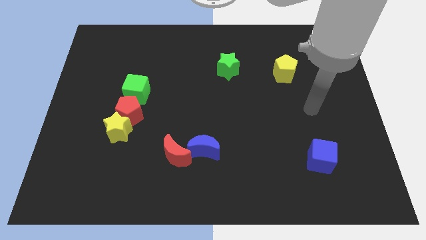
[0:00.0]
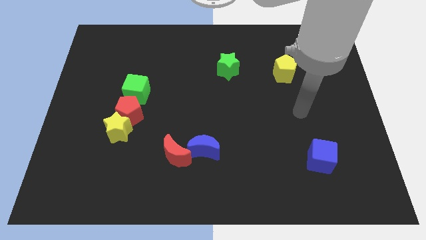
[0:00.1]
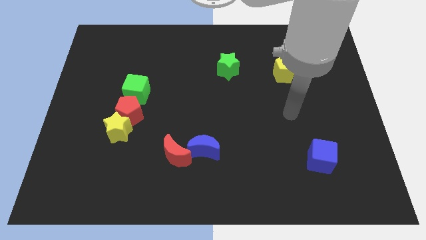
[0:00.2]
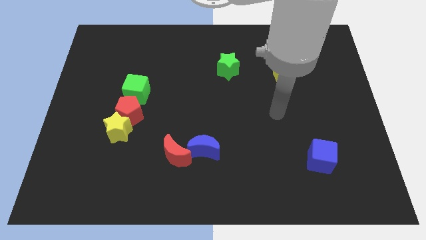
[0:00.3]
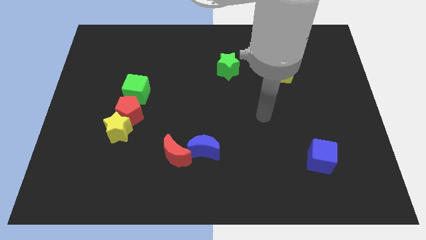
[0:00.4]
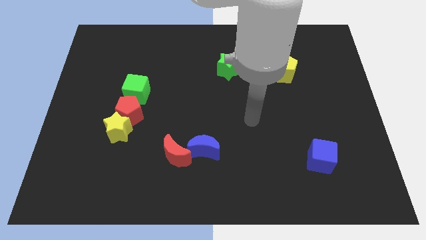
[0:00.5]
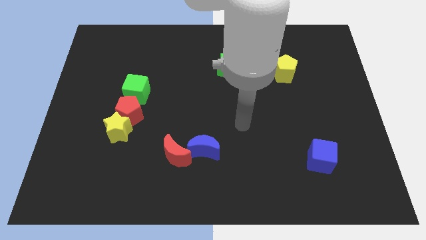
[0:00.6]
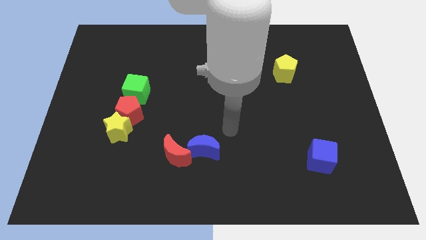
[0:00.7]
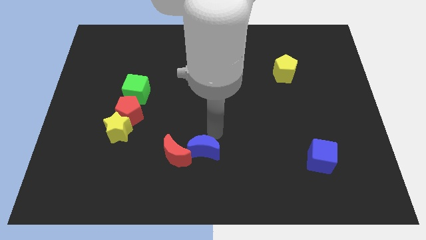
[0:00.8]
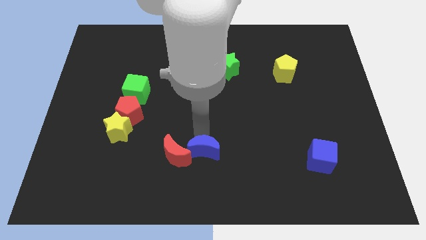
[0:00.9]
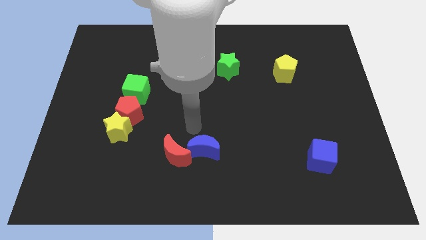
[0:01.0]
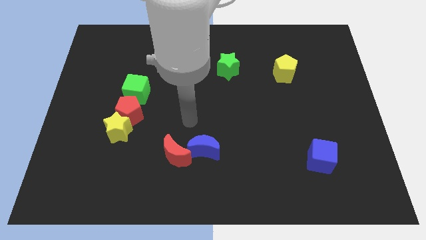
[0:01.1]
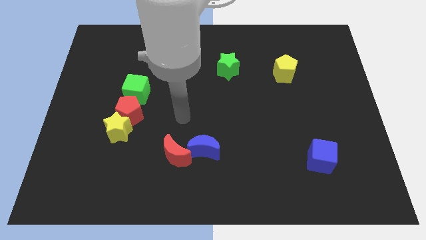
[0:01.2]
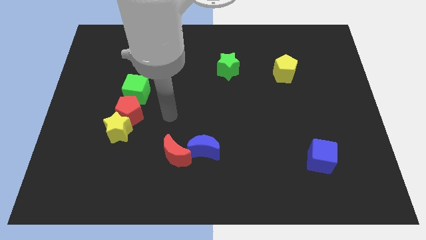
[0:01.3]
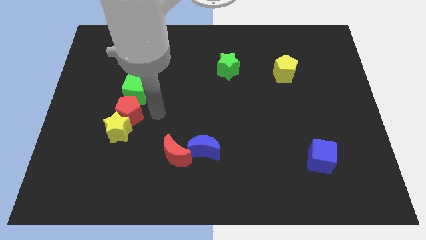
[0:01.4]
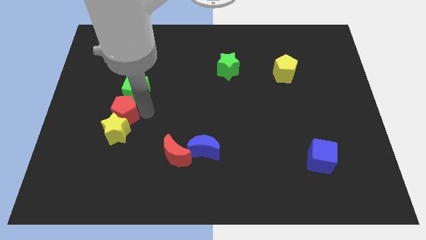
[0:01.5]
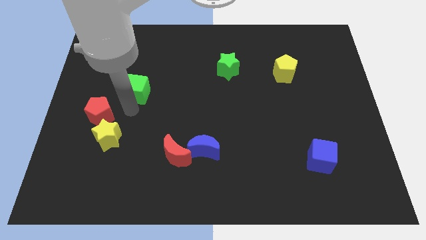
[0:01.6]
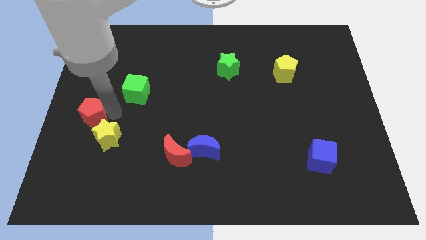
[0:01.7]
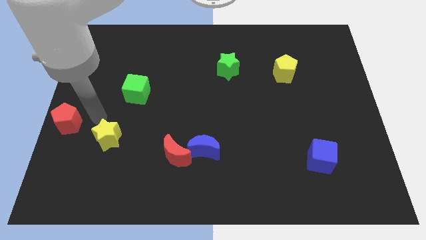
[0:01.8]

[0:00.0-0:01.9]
separate the yellow star from the red pentagon

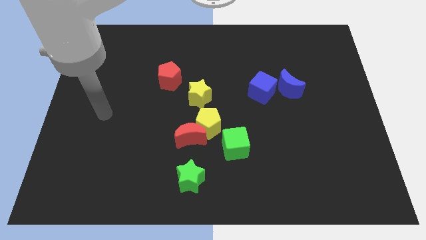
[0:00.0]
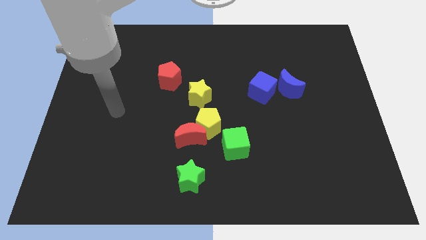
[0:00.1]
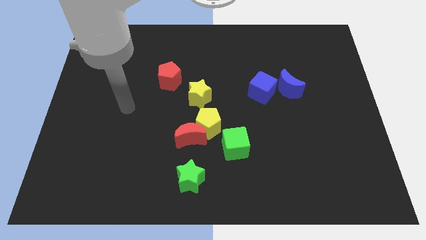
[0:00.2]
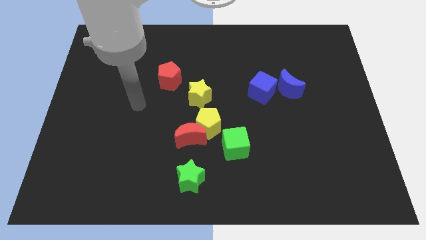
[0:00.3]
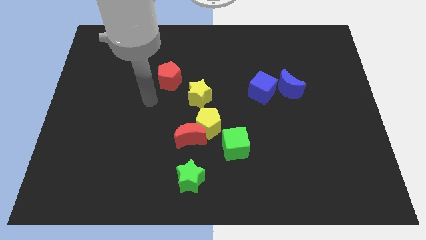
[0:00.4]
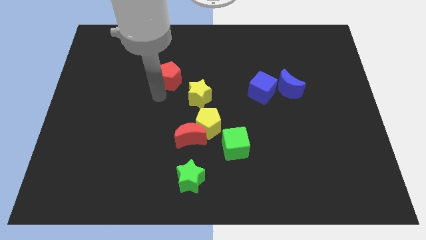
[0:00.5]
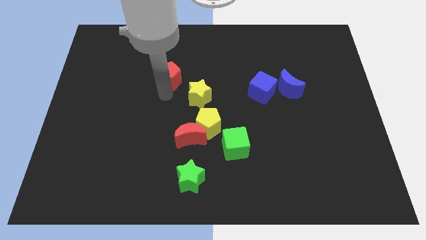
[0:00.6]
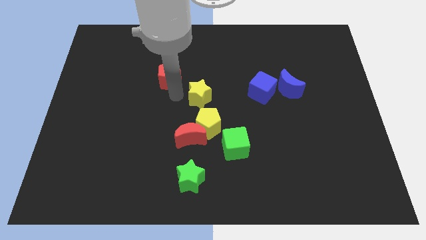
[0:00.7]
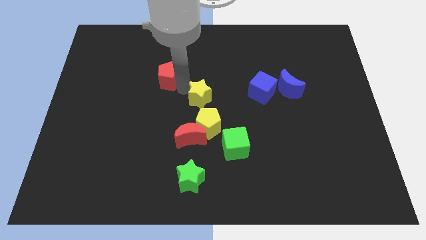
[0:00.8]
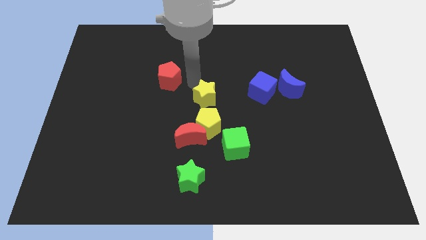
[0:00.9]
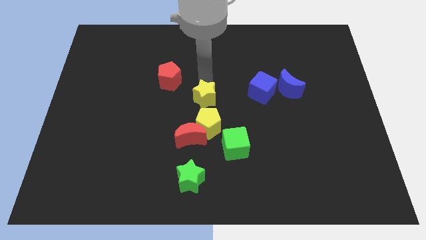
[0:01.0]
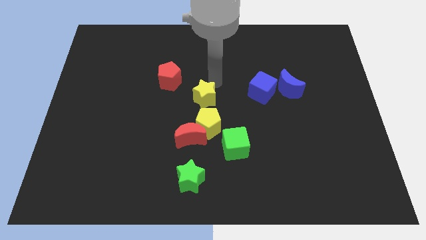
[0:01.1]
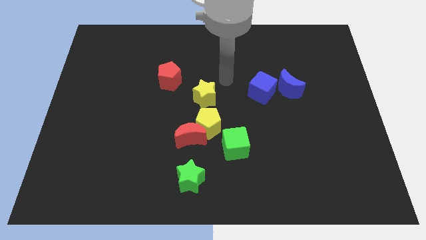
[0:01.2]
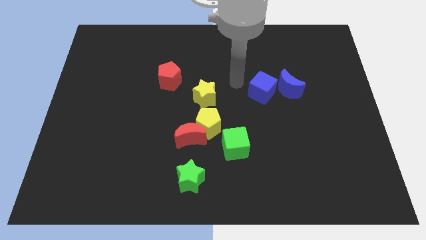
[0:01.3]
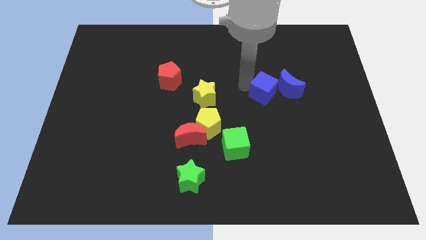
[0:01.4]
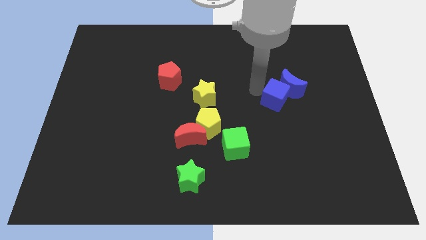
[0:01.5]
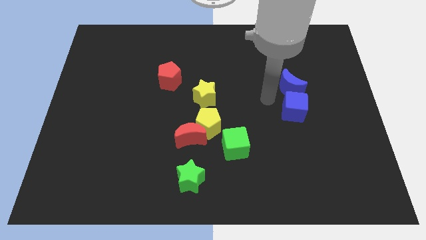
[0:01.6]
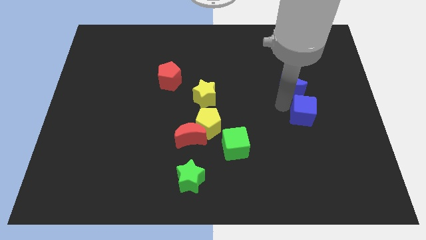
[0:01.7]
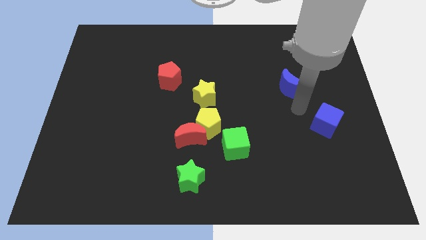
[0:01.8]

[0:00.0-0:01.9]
separate the blue moon from the blue cube

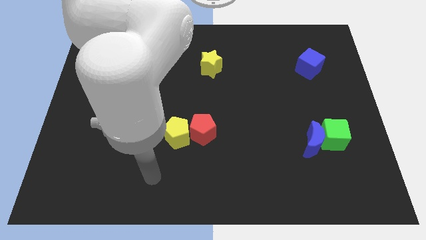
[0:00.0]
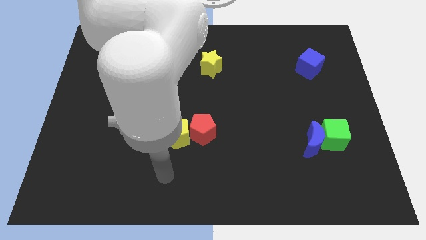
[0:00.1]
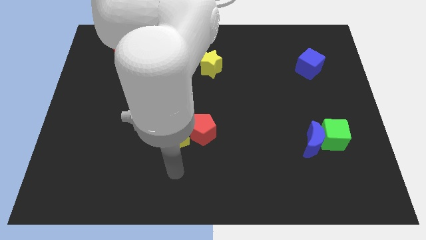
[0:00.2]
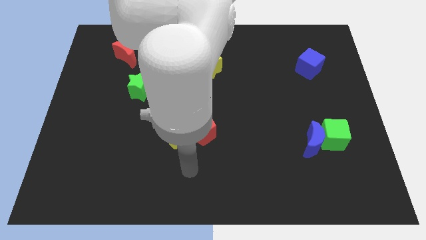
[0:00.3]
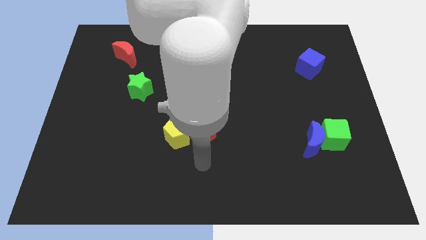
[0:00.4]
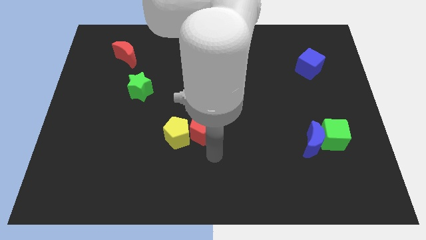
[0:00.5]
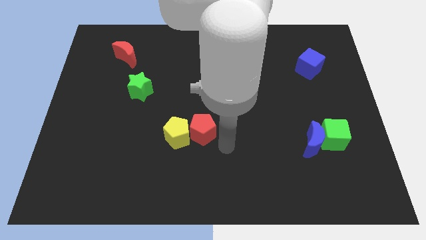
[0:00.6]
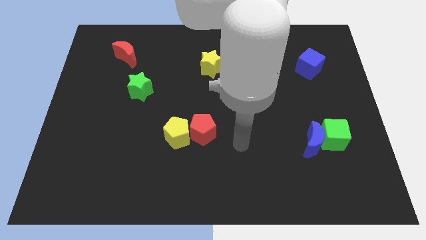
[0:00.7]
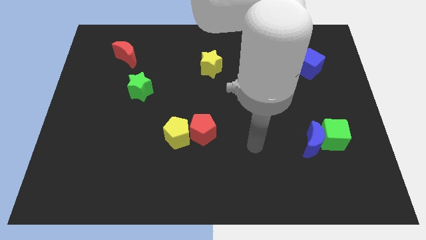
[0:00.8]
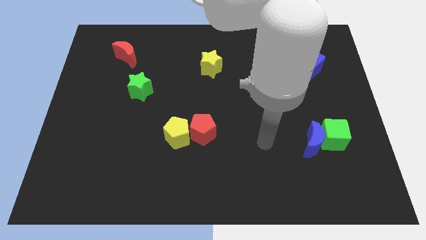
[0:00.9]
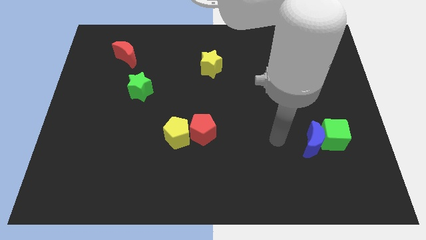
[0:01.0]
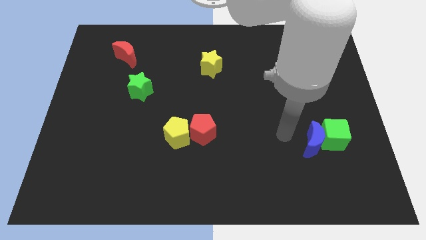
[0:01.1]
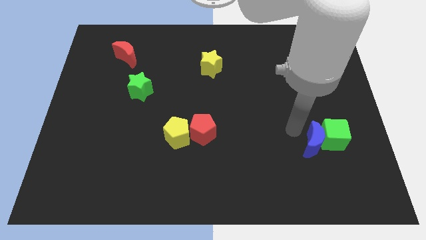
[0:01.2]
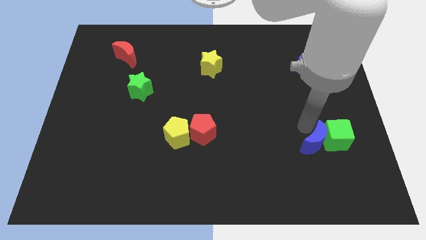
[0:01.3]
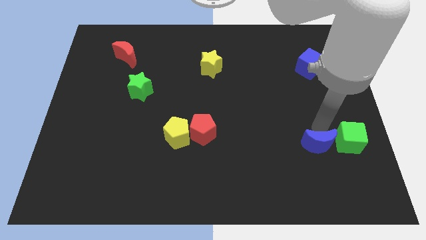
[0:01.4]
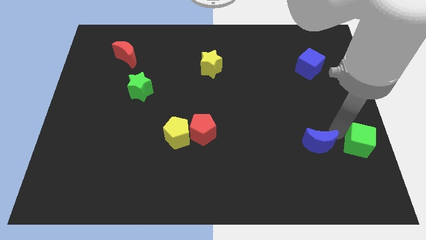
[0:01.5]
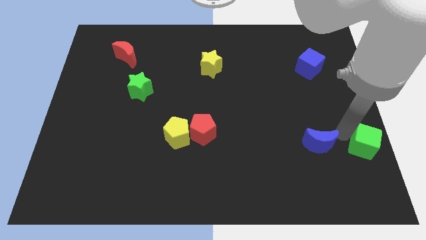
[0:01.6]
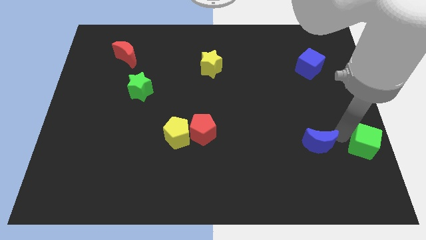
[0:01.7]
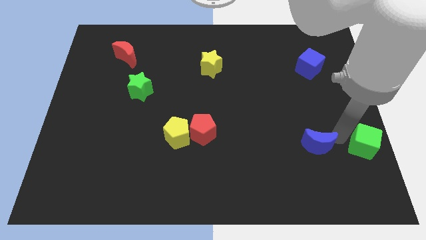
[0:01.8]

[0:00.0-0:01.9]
move the blue moon away from the green cube

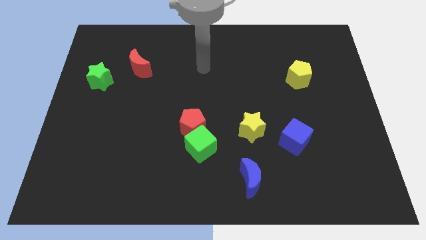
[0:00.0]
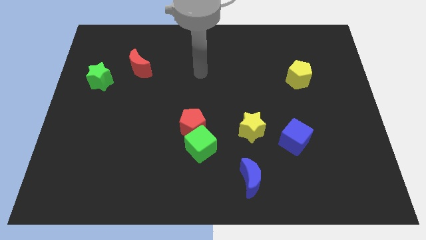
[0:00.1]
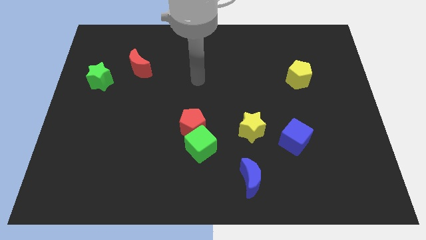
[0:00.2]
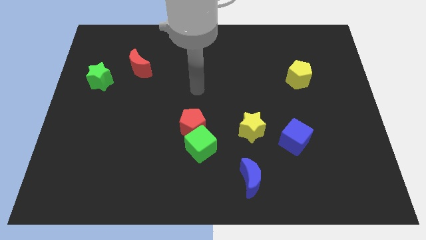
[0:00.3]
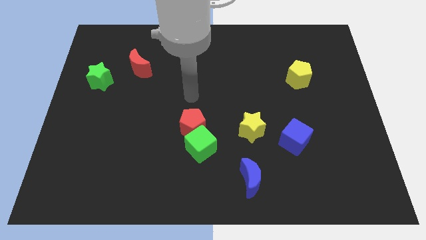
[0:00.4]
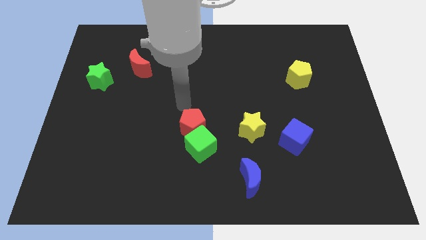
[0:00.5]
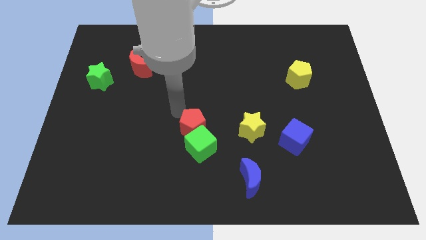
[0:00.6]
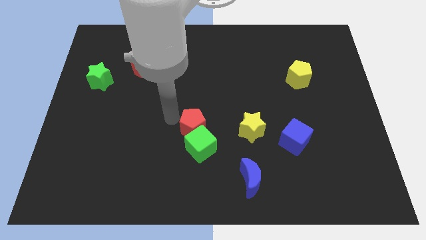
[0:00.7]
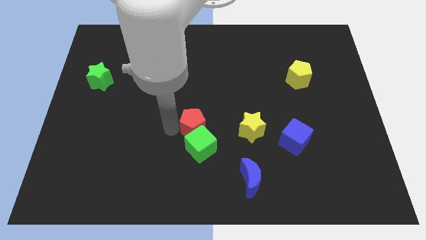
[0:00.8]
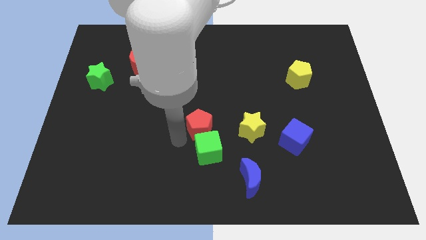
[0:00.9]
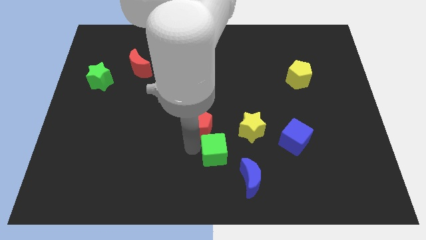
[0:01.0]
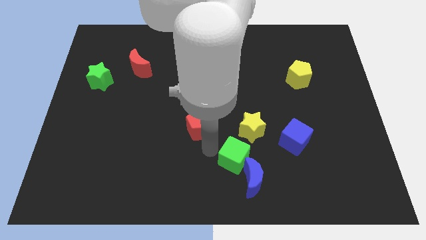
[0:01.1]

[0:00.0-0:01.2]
move the red pentagon away from the green cube

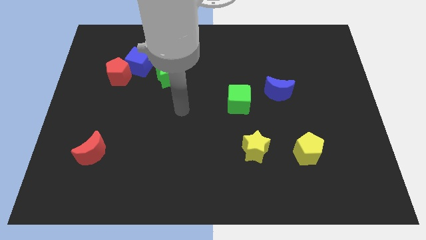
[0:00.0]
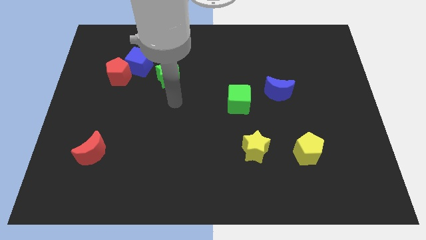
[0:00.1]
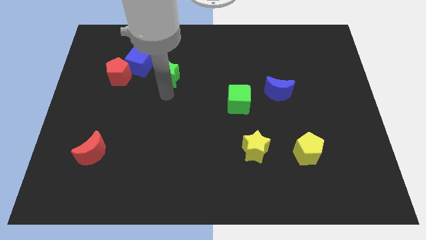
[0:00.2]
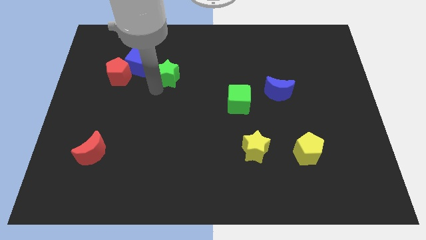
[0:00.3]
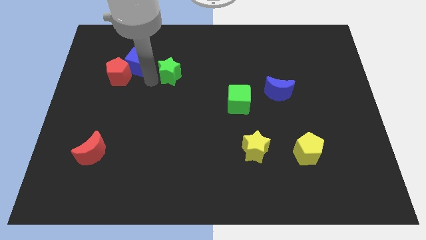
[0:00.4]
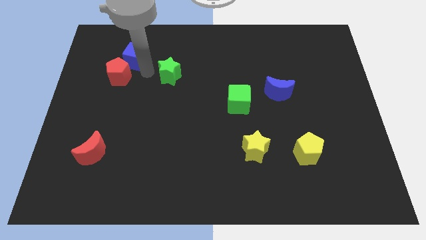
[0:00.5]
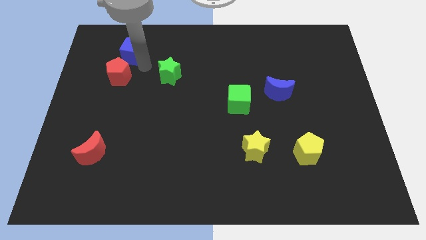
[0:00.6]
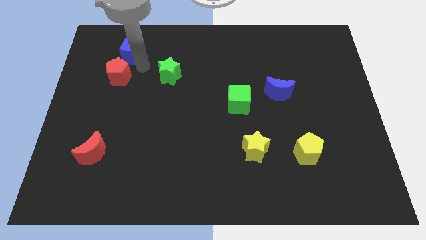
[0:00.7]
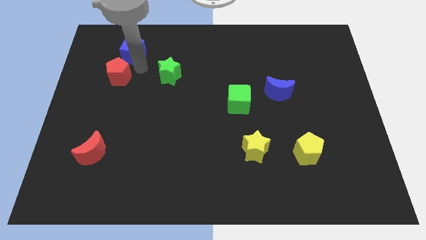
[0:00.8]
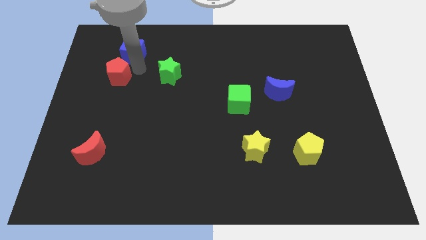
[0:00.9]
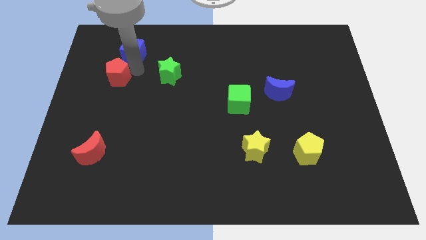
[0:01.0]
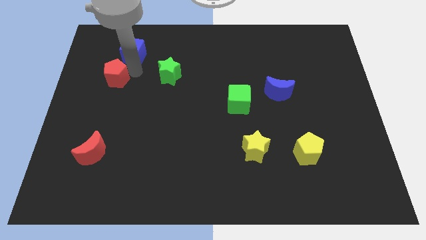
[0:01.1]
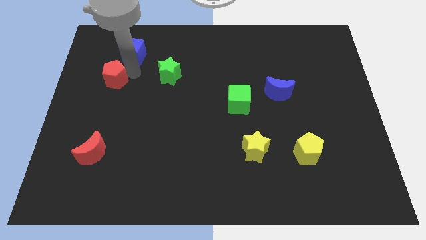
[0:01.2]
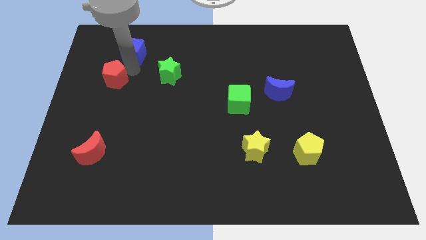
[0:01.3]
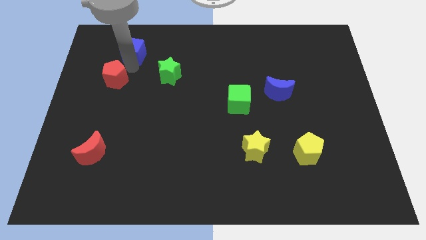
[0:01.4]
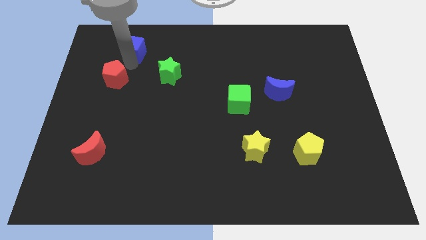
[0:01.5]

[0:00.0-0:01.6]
pull the red pentagon apart from the blue cube

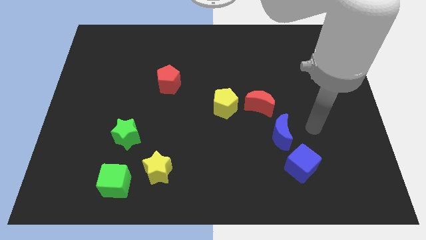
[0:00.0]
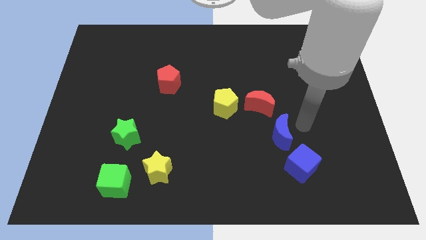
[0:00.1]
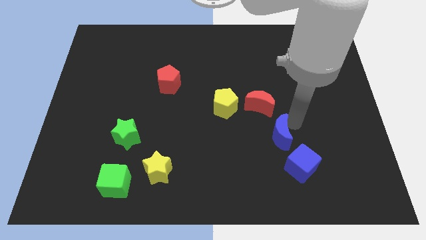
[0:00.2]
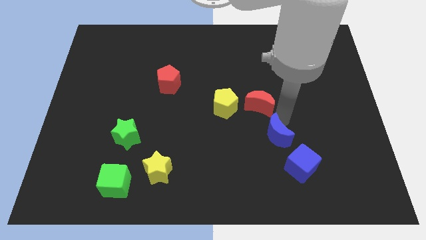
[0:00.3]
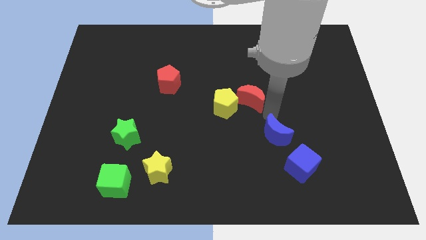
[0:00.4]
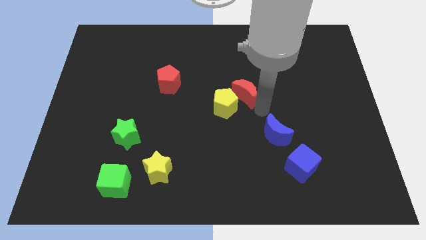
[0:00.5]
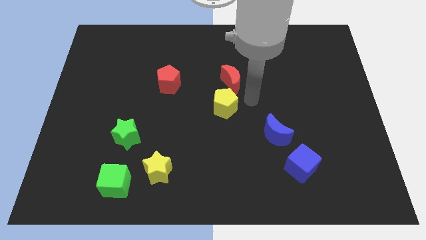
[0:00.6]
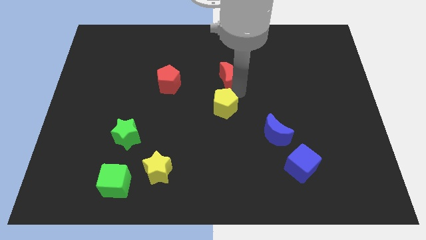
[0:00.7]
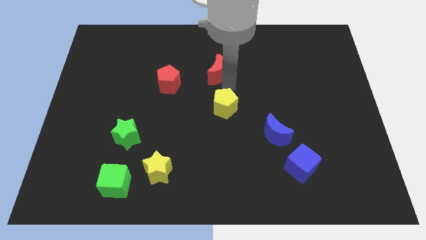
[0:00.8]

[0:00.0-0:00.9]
move the yellow pentagon away from the red moon
